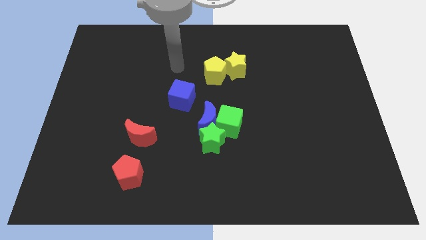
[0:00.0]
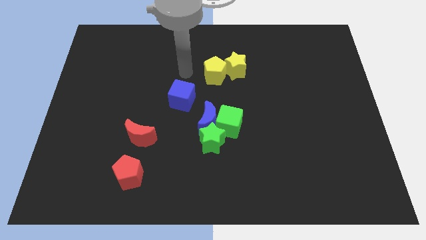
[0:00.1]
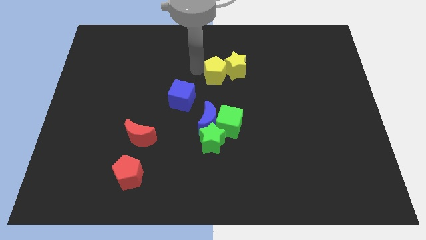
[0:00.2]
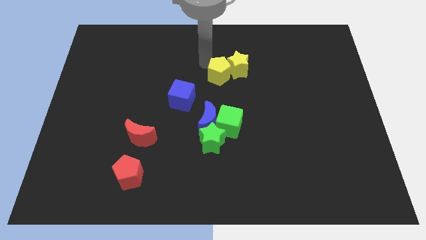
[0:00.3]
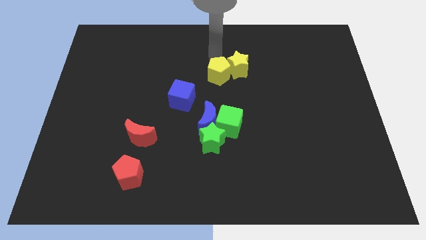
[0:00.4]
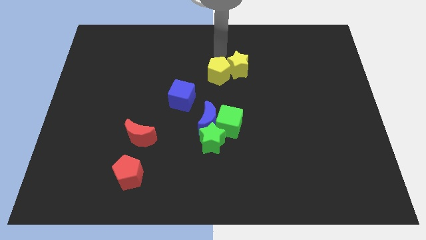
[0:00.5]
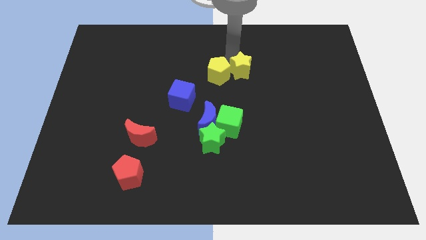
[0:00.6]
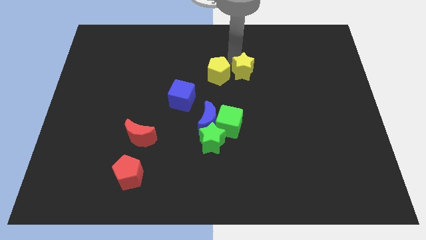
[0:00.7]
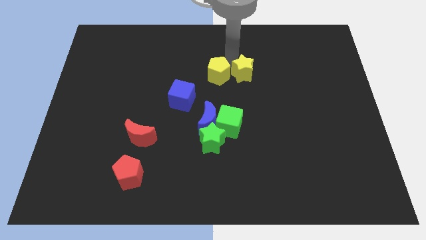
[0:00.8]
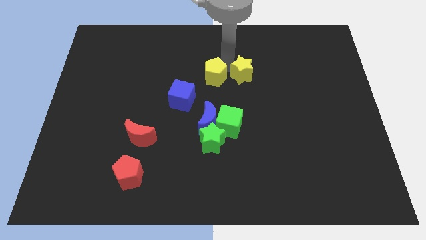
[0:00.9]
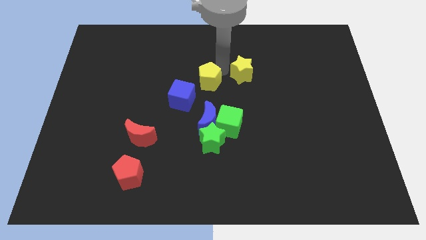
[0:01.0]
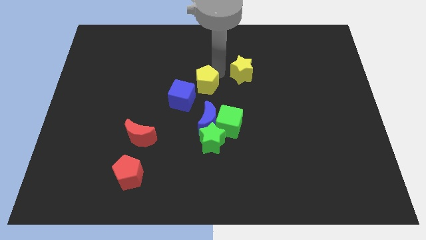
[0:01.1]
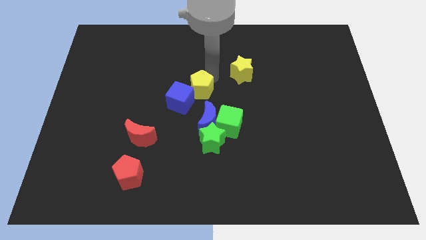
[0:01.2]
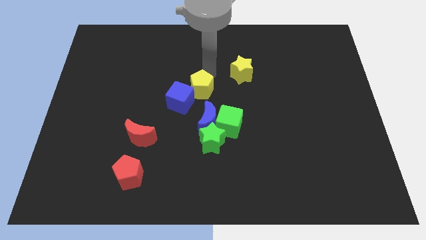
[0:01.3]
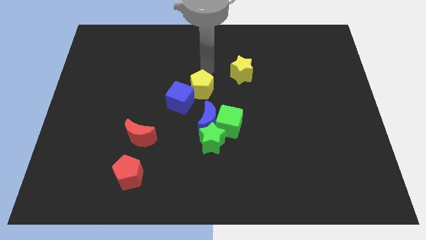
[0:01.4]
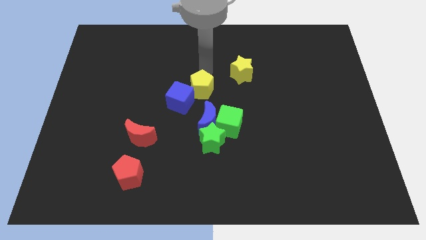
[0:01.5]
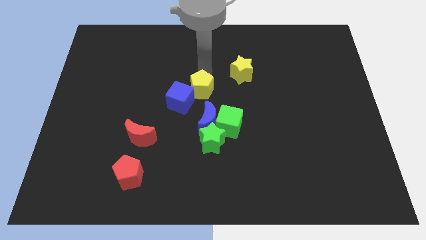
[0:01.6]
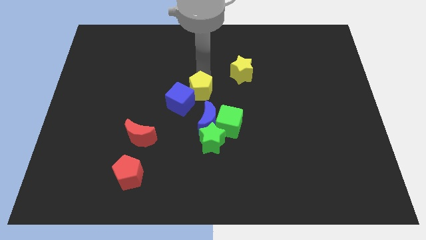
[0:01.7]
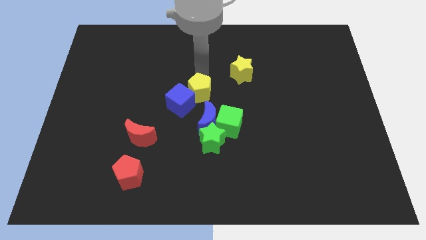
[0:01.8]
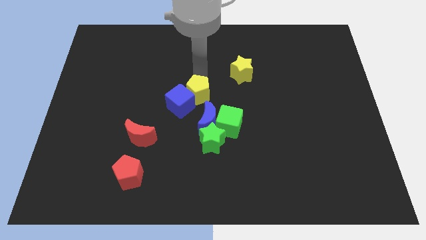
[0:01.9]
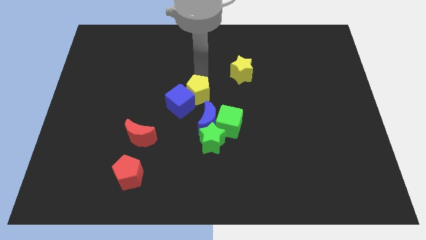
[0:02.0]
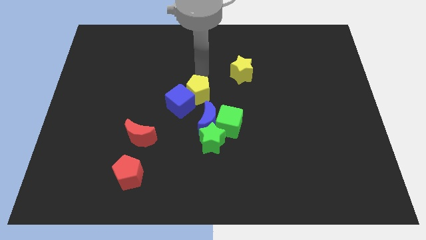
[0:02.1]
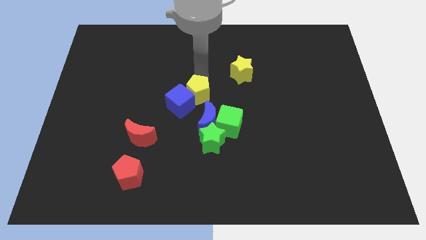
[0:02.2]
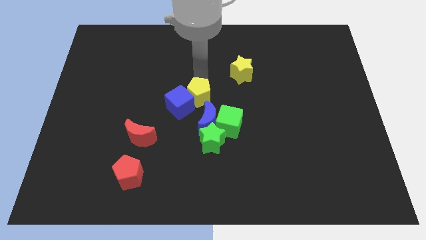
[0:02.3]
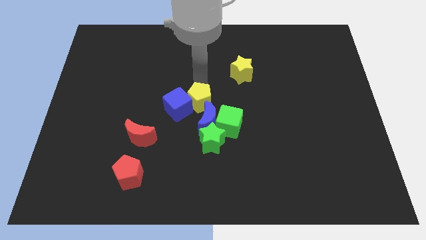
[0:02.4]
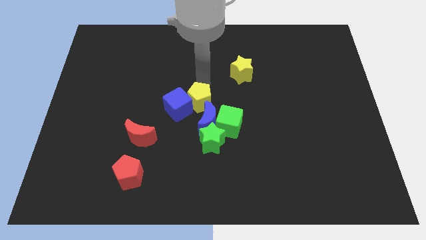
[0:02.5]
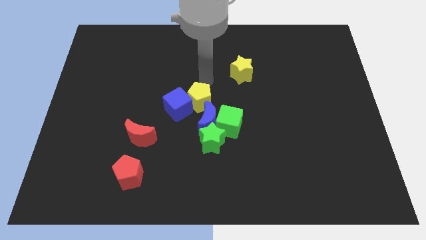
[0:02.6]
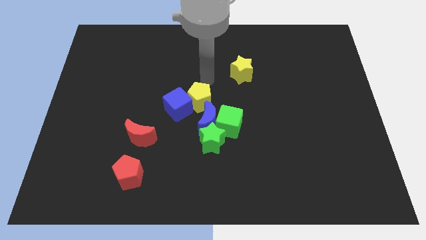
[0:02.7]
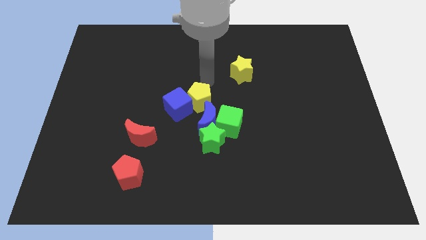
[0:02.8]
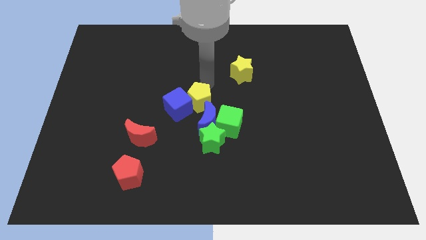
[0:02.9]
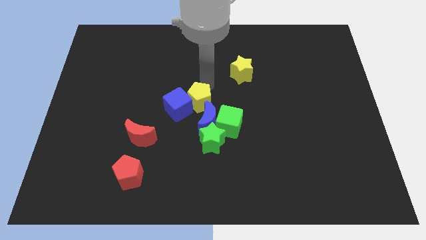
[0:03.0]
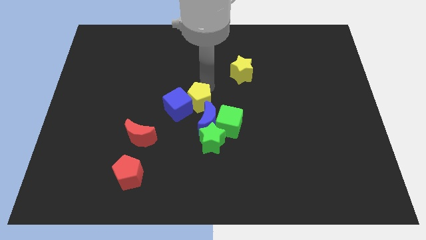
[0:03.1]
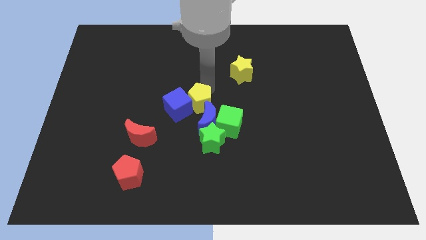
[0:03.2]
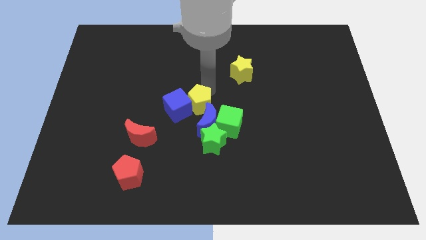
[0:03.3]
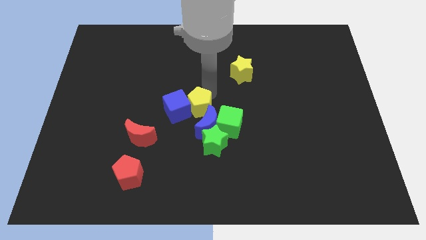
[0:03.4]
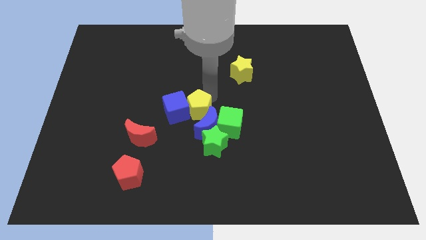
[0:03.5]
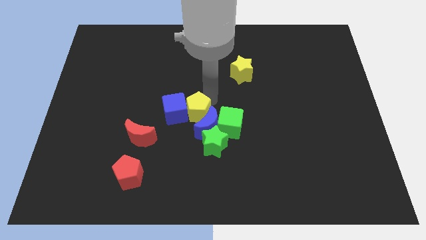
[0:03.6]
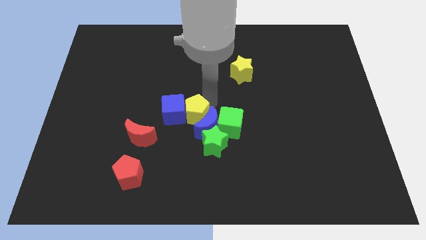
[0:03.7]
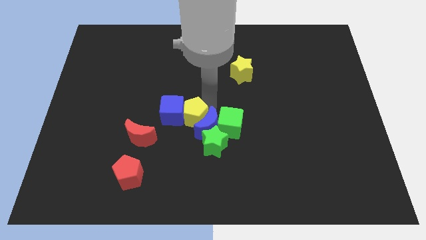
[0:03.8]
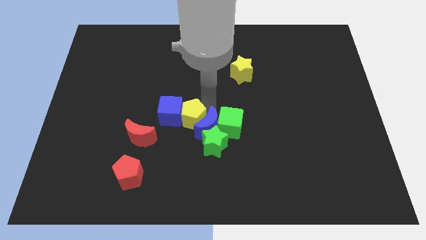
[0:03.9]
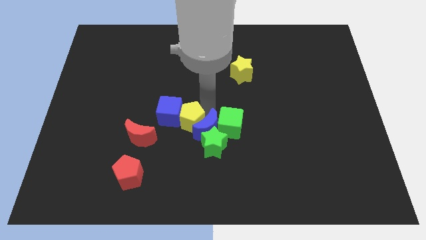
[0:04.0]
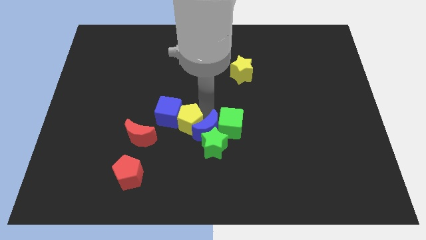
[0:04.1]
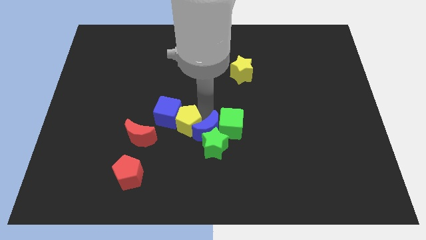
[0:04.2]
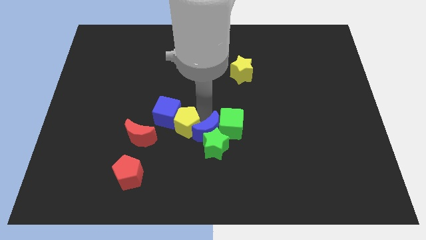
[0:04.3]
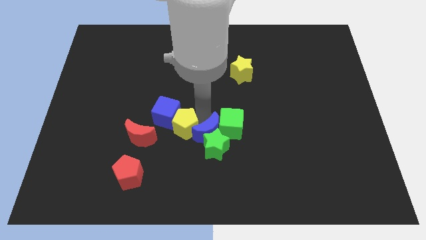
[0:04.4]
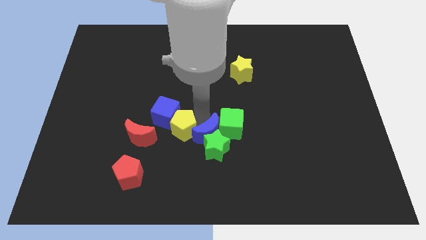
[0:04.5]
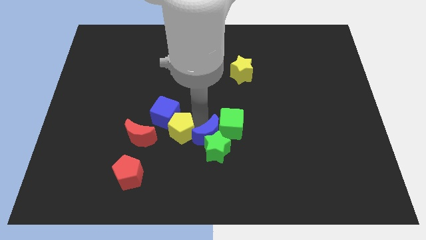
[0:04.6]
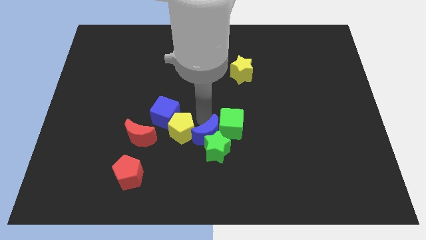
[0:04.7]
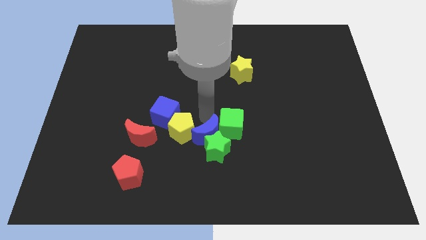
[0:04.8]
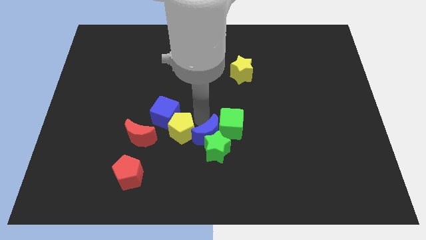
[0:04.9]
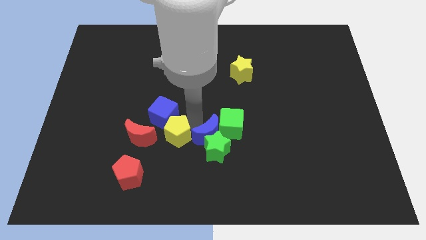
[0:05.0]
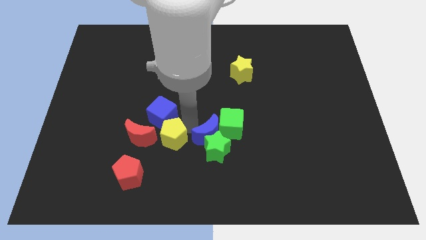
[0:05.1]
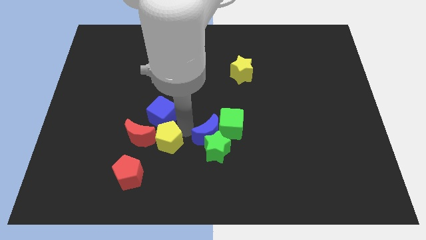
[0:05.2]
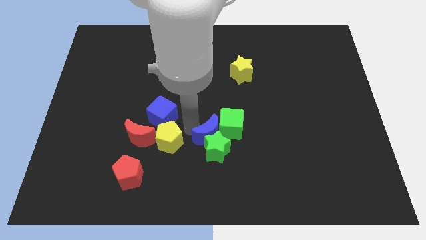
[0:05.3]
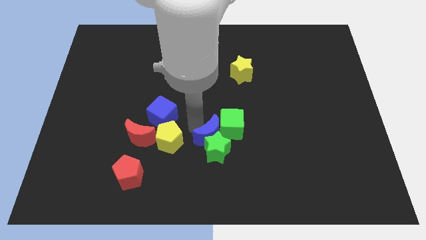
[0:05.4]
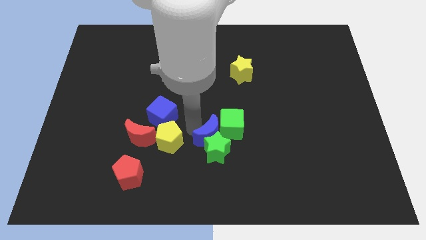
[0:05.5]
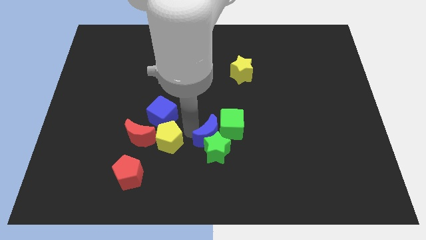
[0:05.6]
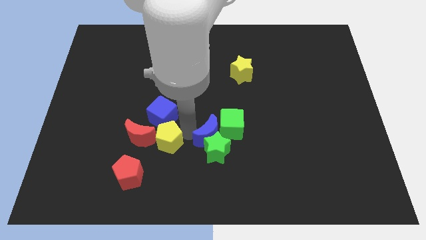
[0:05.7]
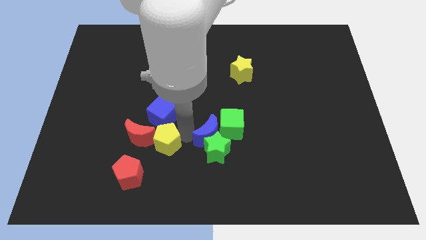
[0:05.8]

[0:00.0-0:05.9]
push the yellow pentagon downwards and to the left diagonally

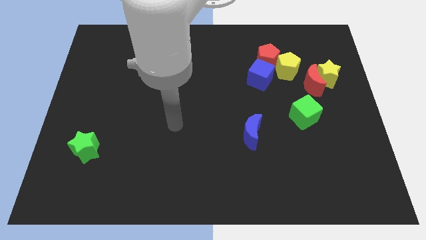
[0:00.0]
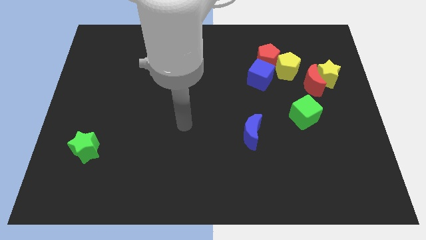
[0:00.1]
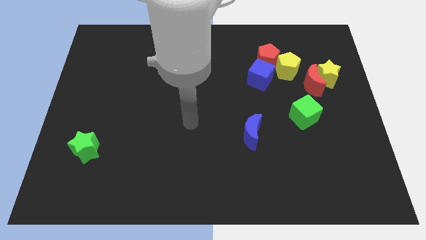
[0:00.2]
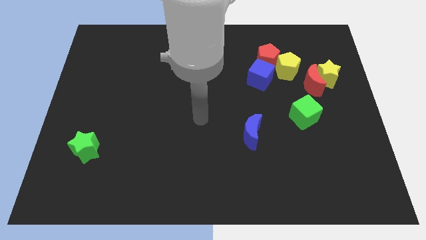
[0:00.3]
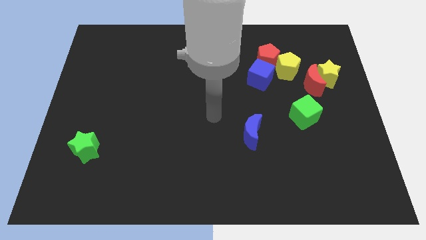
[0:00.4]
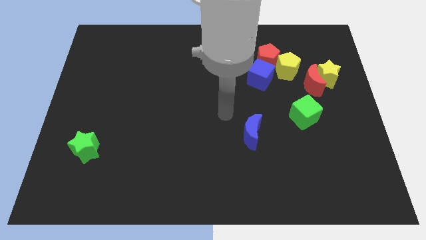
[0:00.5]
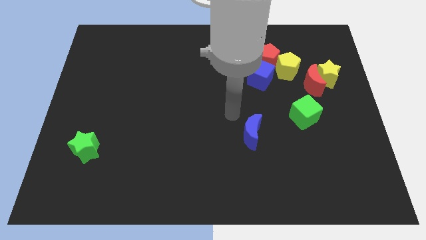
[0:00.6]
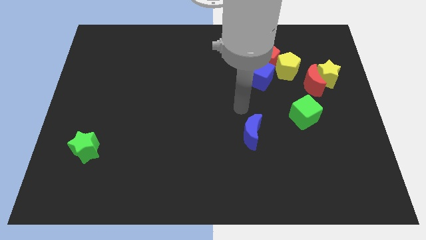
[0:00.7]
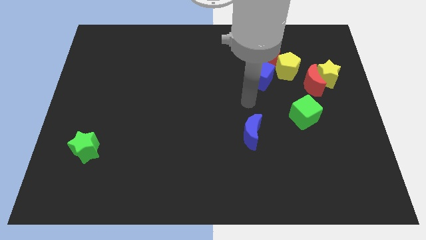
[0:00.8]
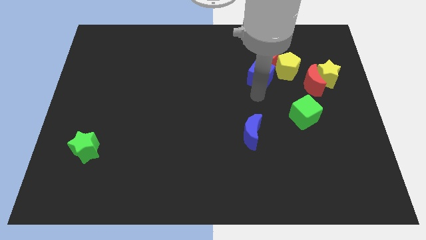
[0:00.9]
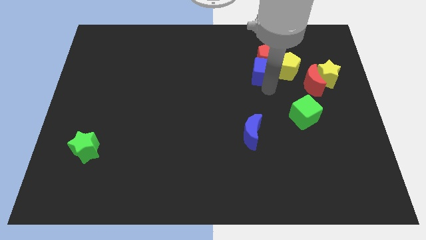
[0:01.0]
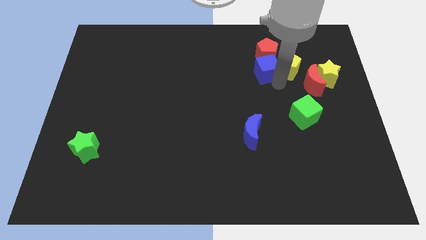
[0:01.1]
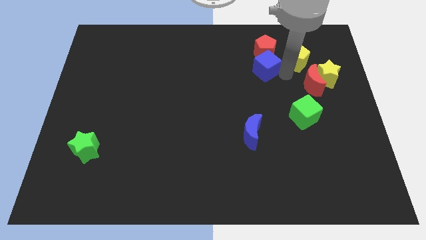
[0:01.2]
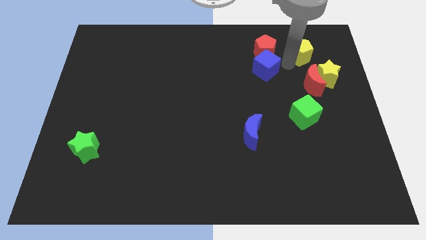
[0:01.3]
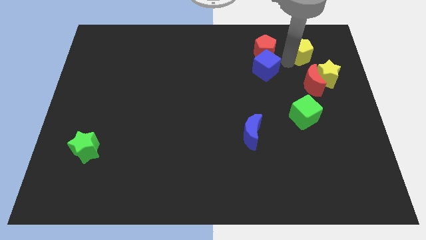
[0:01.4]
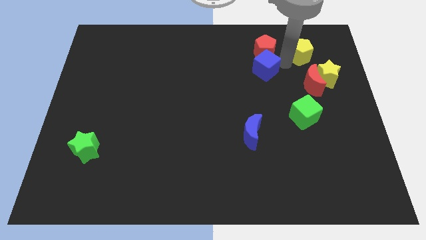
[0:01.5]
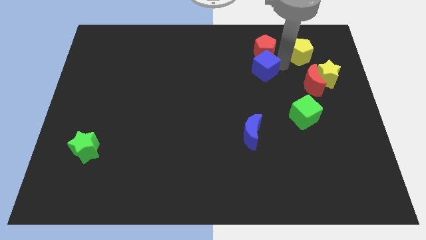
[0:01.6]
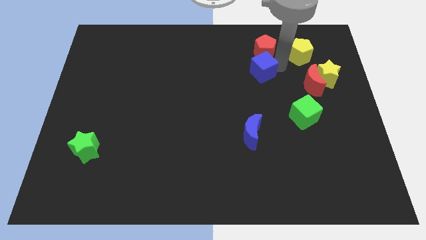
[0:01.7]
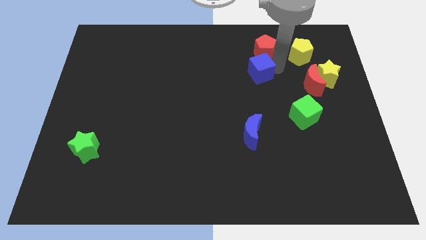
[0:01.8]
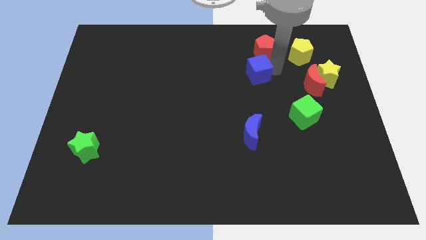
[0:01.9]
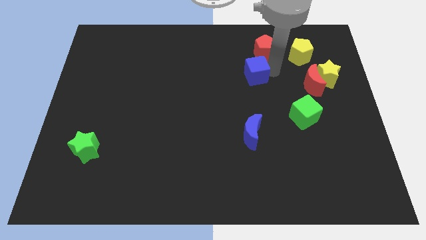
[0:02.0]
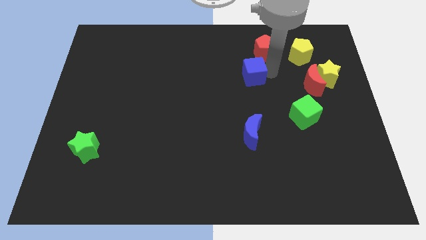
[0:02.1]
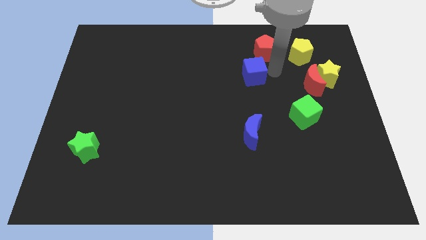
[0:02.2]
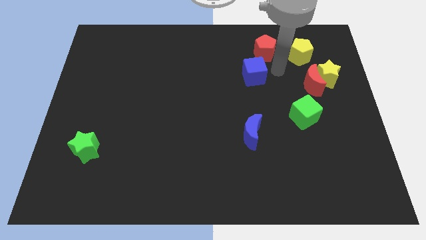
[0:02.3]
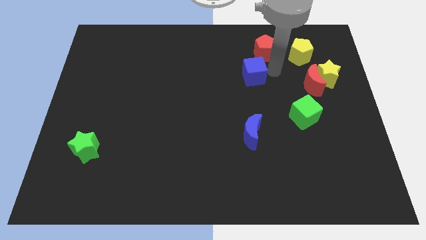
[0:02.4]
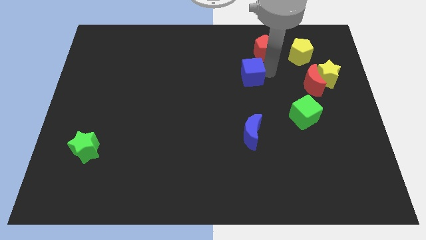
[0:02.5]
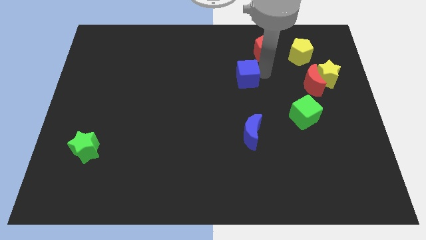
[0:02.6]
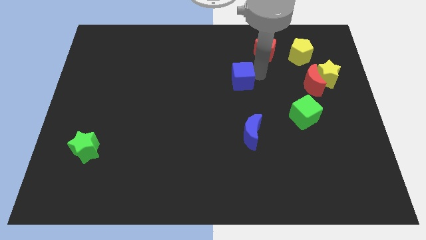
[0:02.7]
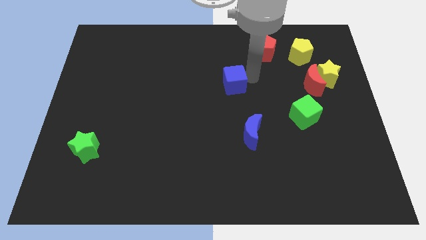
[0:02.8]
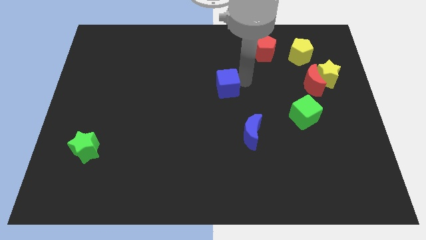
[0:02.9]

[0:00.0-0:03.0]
slightly move the blue cube to the left
